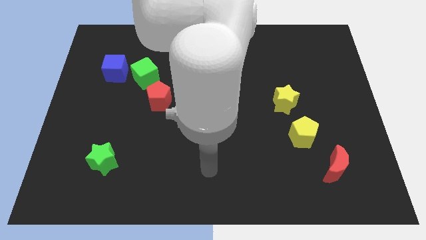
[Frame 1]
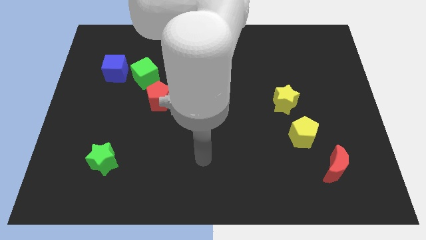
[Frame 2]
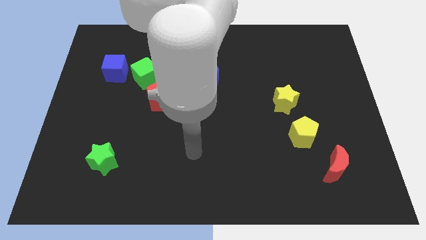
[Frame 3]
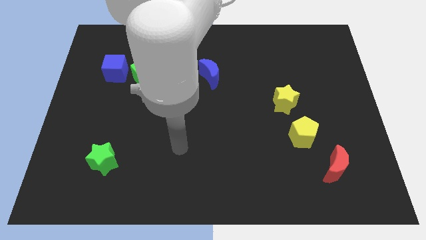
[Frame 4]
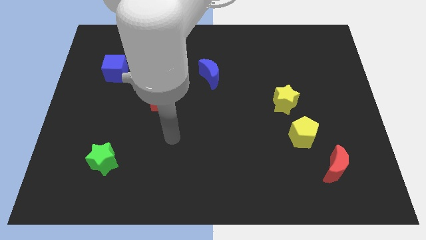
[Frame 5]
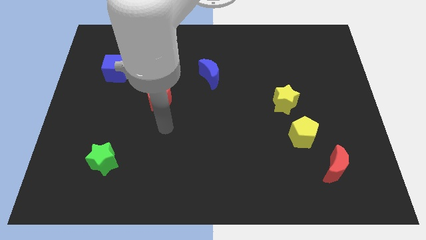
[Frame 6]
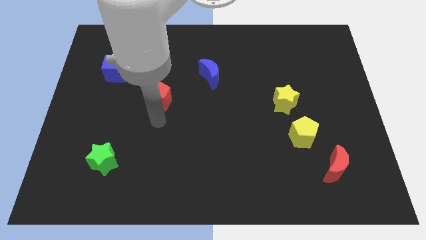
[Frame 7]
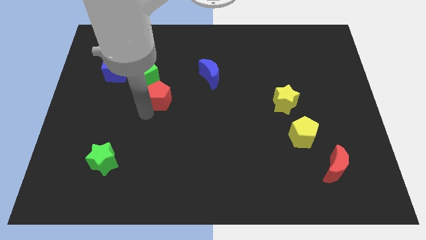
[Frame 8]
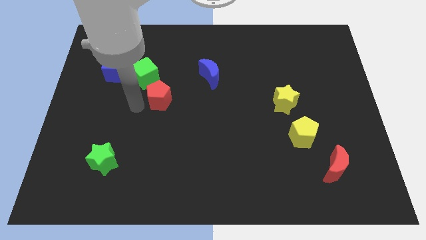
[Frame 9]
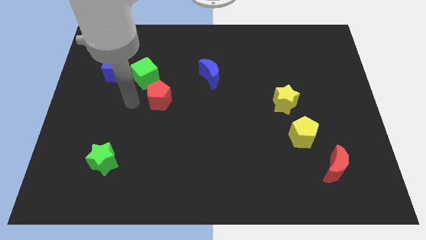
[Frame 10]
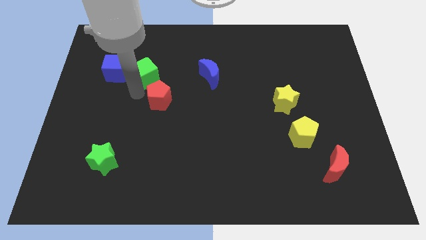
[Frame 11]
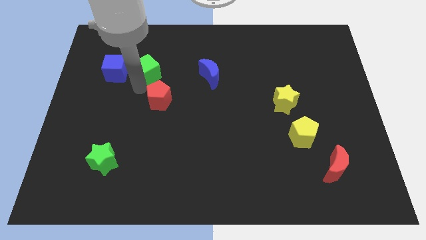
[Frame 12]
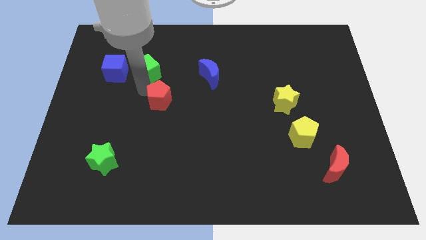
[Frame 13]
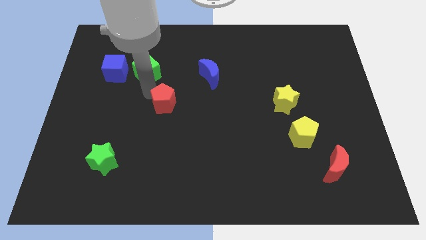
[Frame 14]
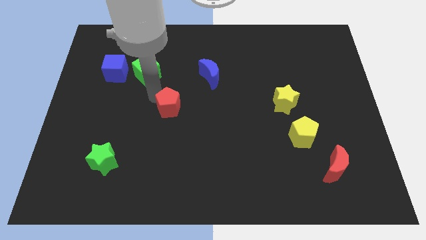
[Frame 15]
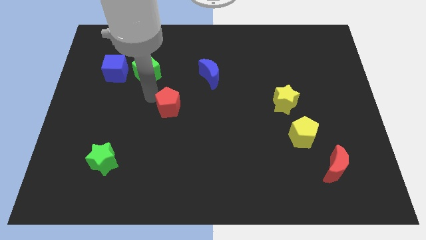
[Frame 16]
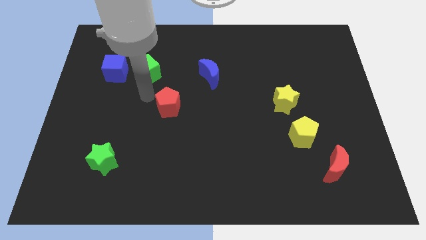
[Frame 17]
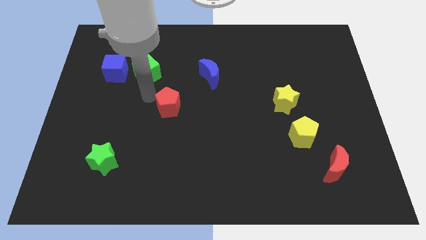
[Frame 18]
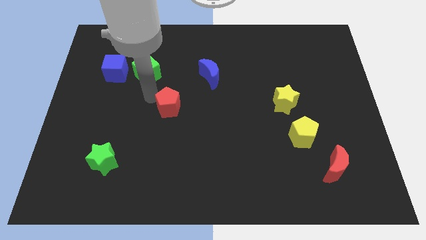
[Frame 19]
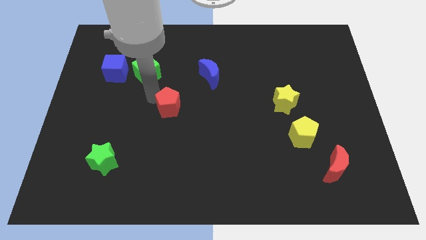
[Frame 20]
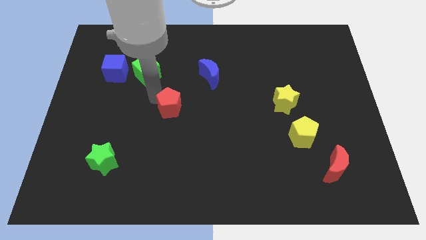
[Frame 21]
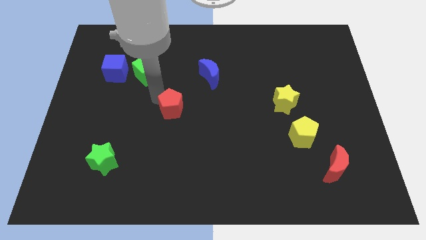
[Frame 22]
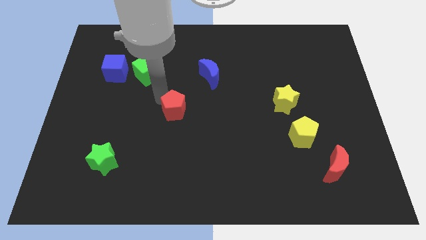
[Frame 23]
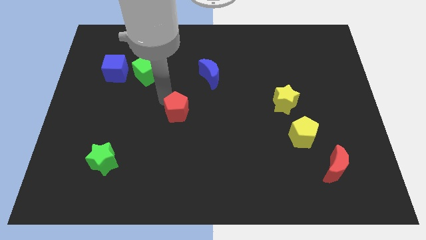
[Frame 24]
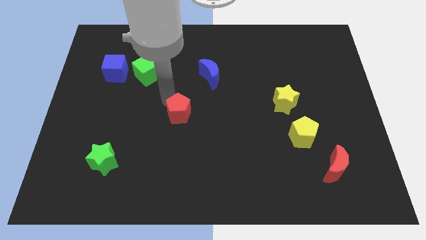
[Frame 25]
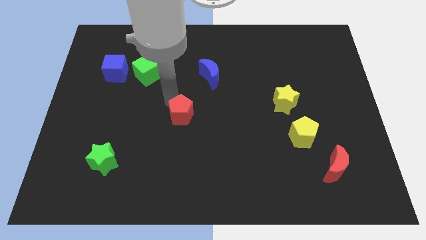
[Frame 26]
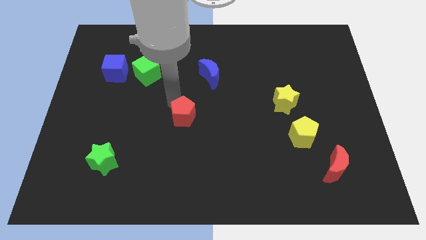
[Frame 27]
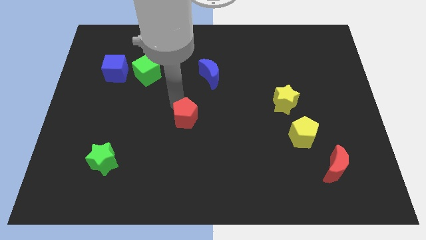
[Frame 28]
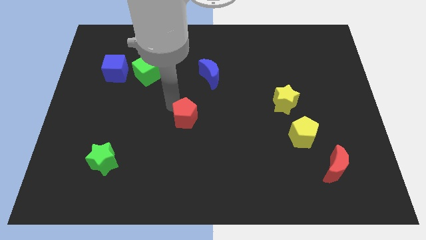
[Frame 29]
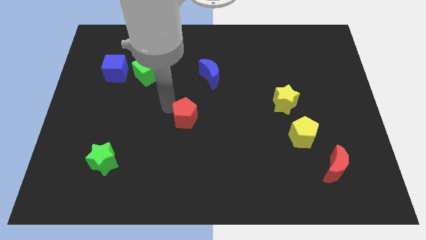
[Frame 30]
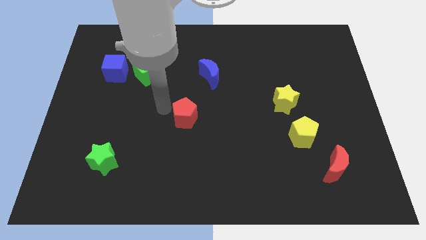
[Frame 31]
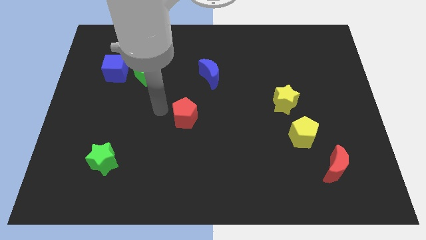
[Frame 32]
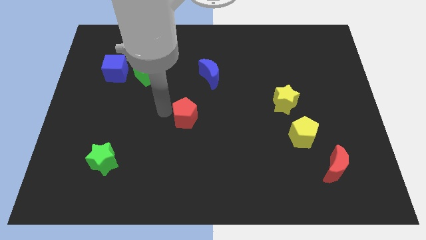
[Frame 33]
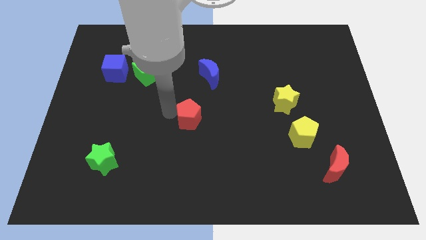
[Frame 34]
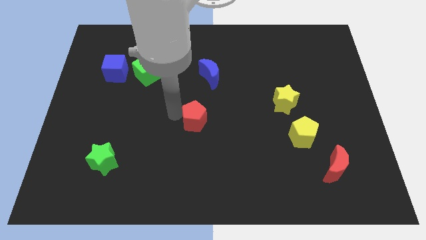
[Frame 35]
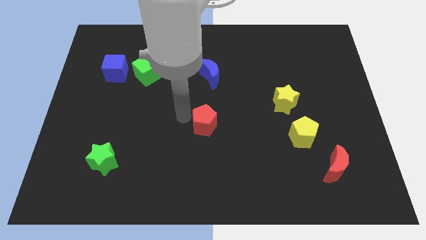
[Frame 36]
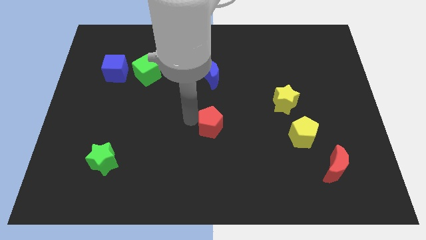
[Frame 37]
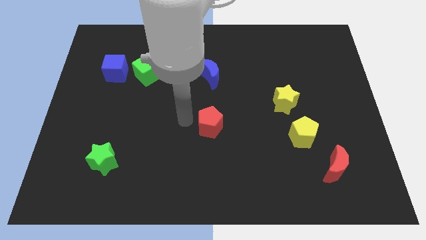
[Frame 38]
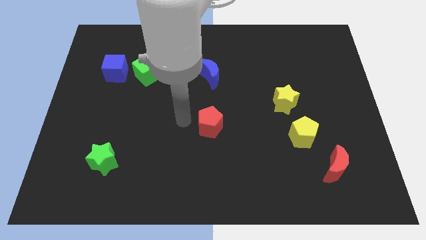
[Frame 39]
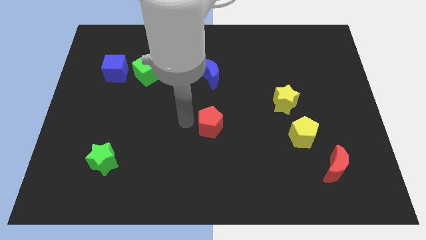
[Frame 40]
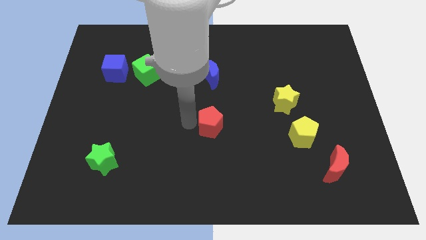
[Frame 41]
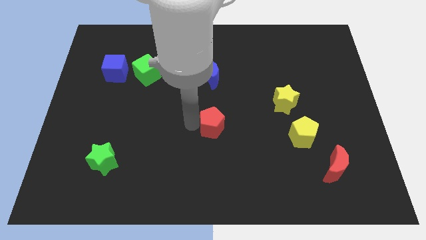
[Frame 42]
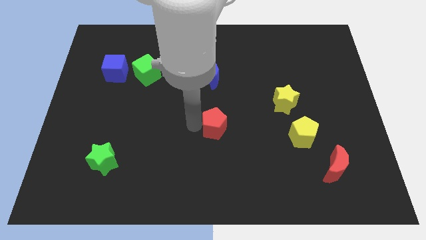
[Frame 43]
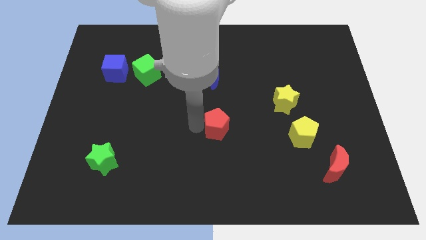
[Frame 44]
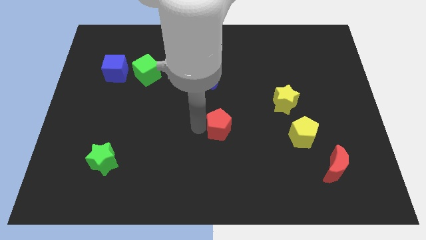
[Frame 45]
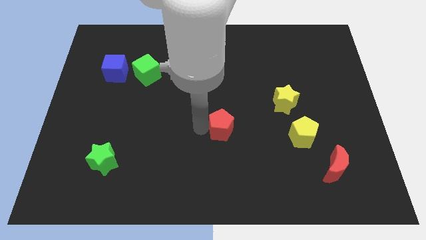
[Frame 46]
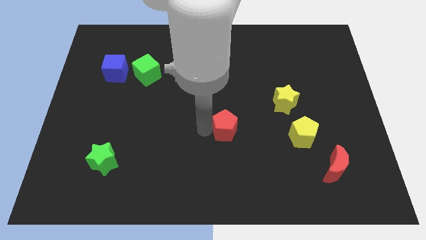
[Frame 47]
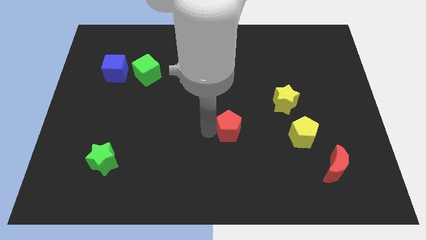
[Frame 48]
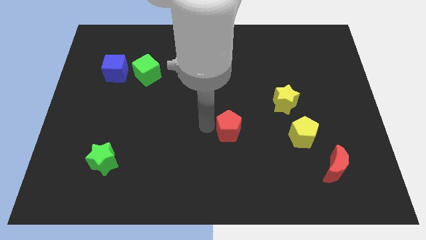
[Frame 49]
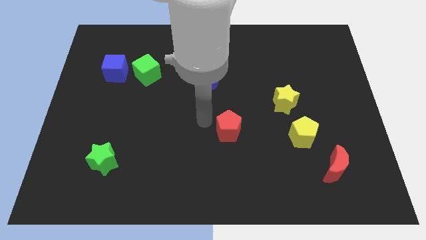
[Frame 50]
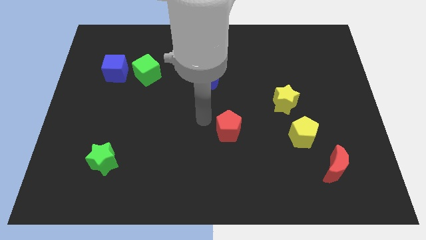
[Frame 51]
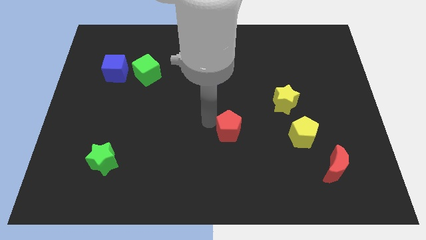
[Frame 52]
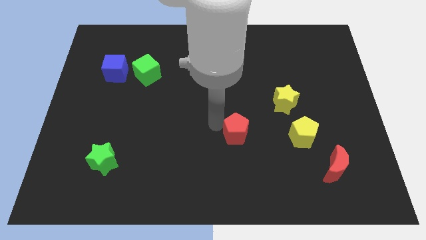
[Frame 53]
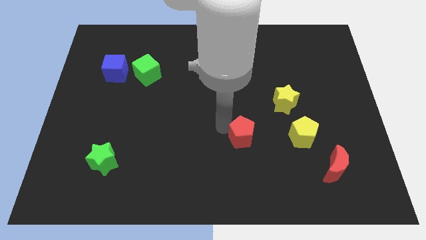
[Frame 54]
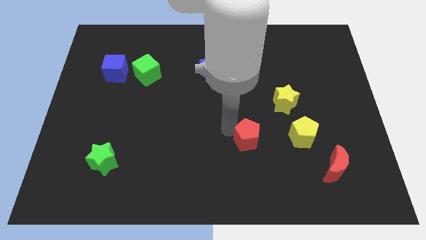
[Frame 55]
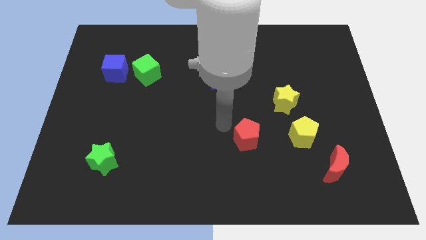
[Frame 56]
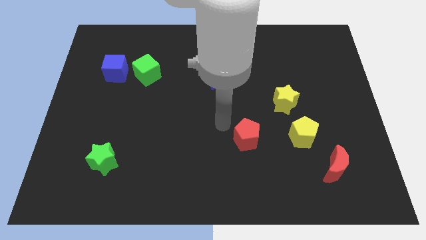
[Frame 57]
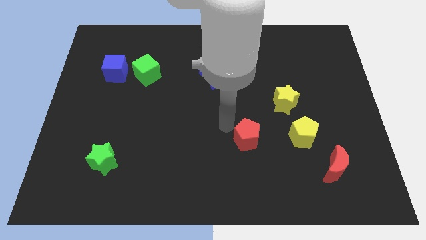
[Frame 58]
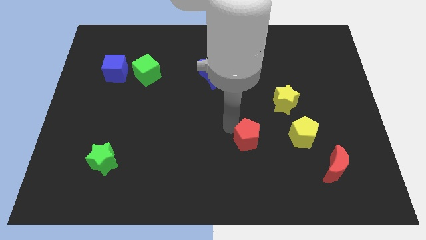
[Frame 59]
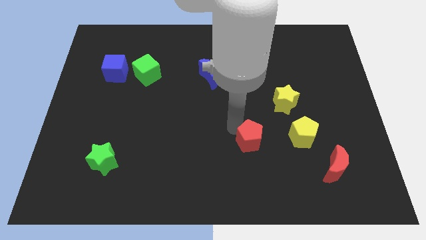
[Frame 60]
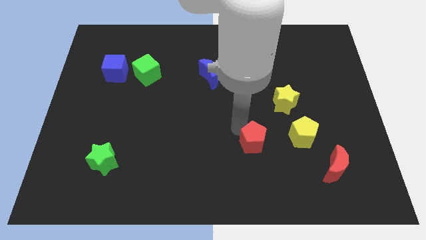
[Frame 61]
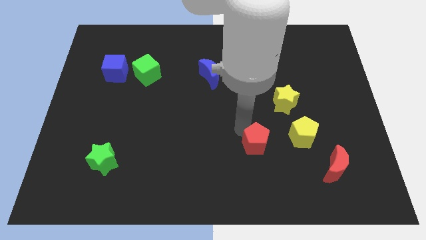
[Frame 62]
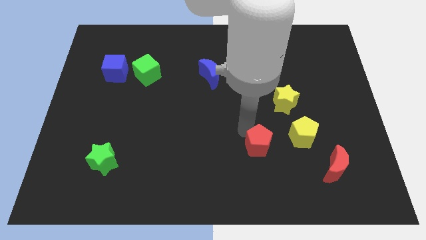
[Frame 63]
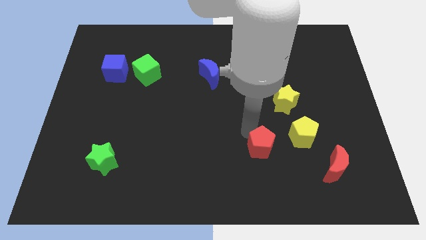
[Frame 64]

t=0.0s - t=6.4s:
push the red pentagon to the bottom left of the yellow pentagon

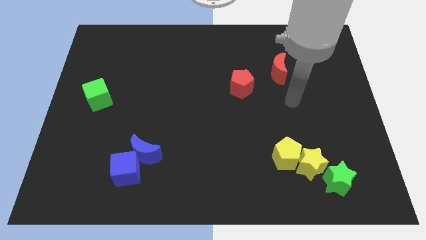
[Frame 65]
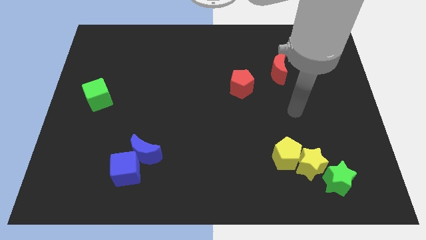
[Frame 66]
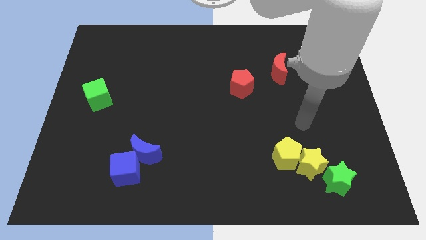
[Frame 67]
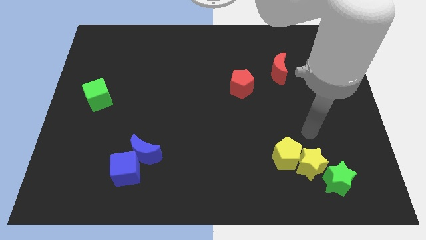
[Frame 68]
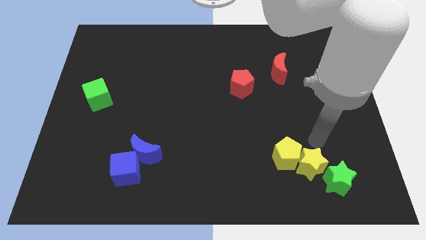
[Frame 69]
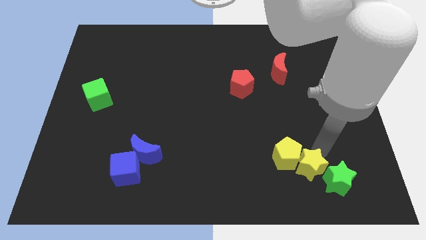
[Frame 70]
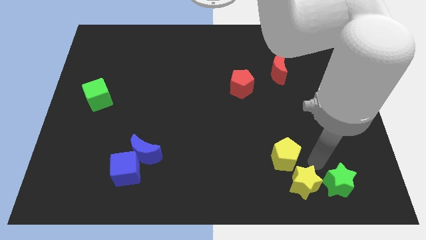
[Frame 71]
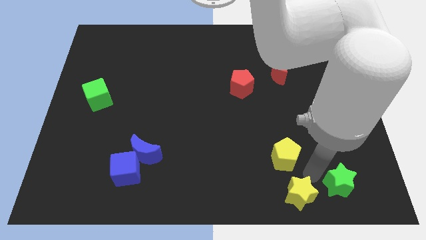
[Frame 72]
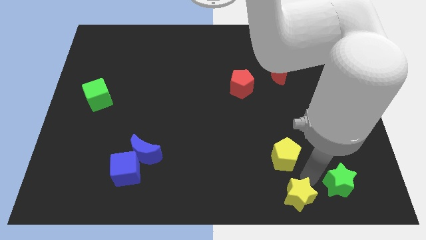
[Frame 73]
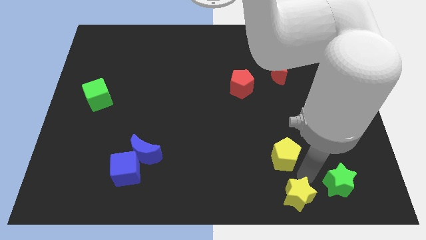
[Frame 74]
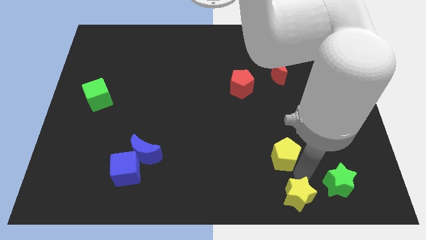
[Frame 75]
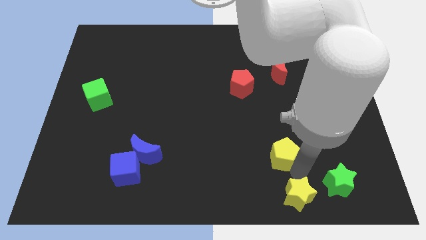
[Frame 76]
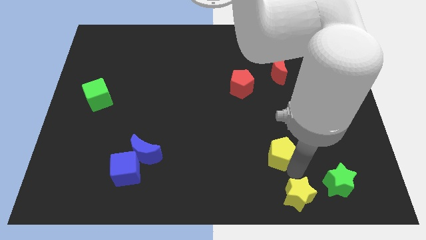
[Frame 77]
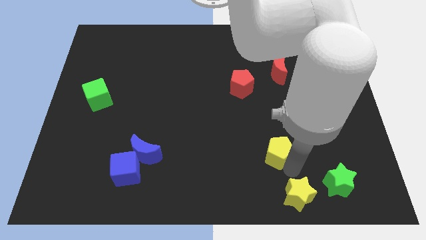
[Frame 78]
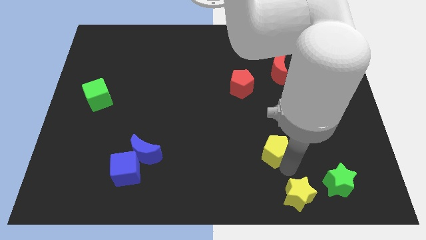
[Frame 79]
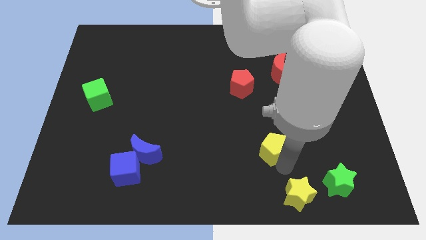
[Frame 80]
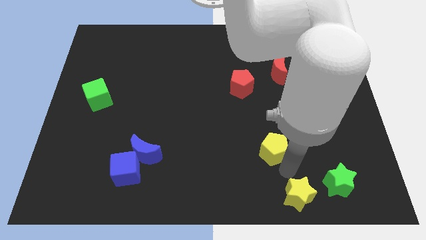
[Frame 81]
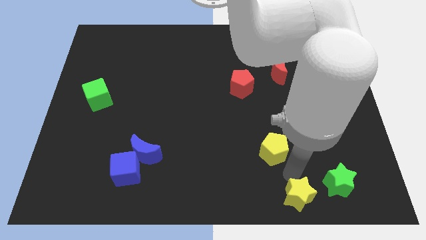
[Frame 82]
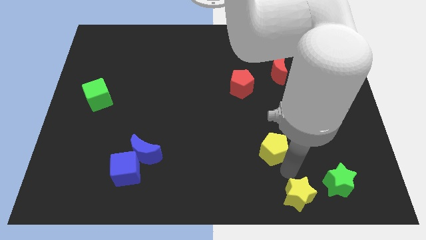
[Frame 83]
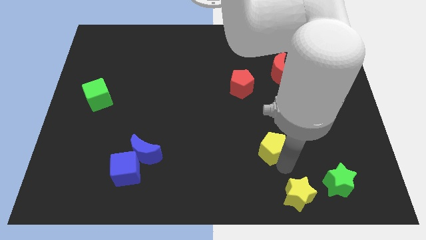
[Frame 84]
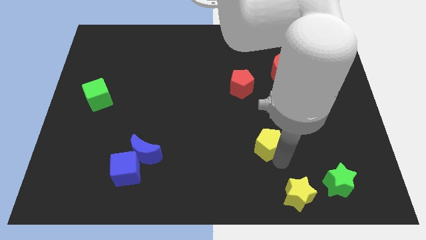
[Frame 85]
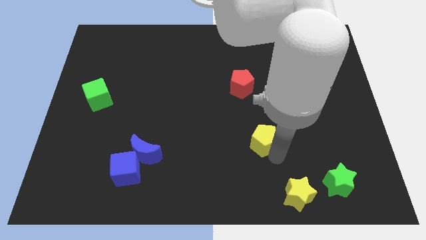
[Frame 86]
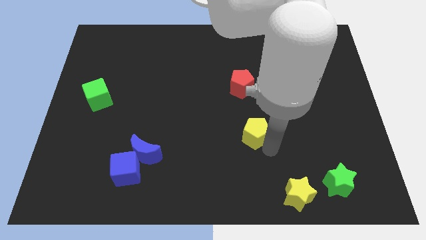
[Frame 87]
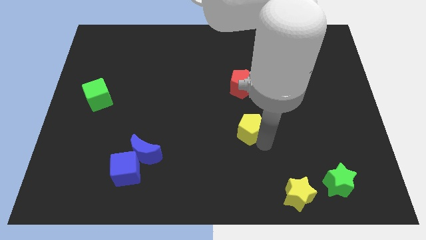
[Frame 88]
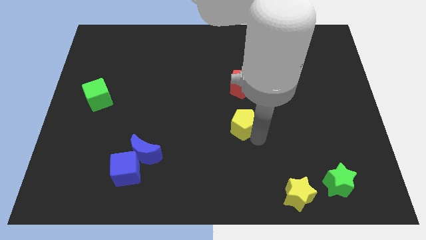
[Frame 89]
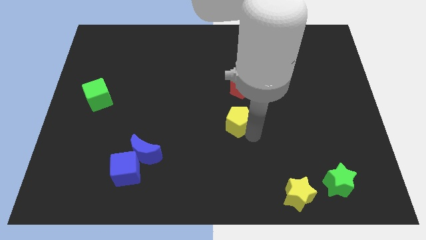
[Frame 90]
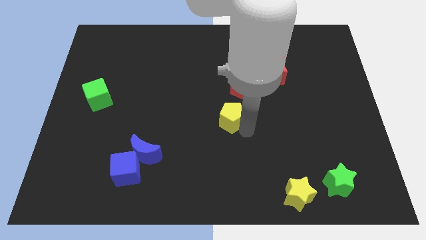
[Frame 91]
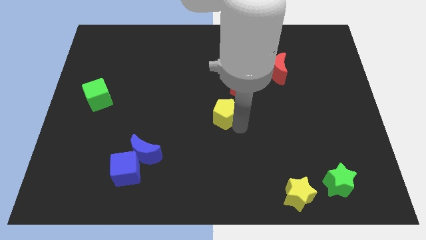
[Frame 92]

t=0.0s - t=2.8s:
push the yellow pentagon to the bottom left of the red pentagon
